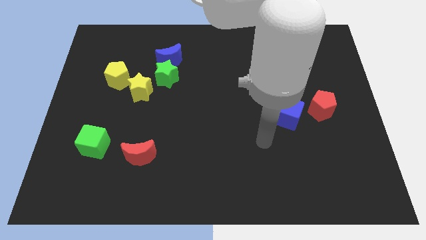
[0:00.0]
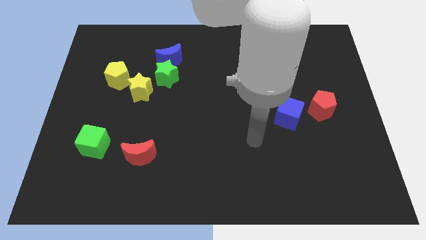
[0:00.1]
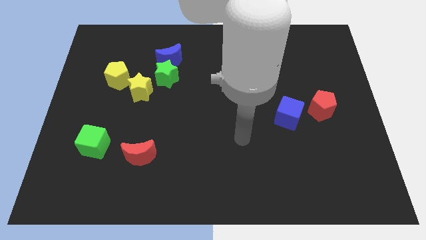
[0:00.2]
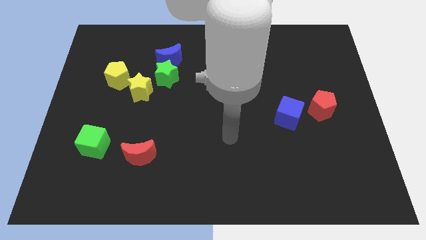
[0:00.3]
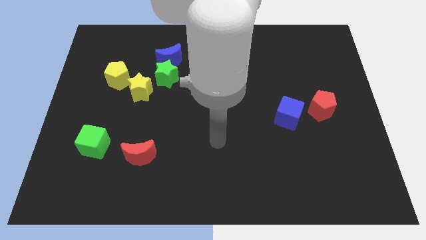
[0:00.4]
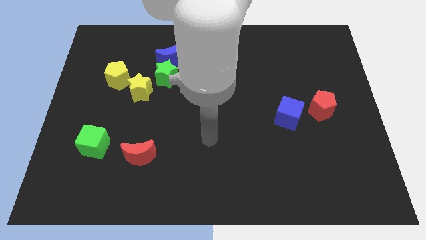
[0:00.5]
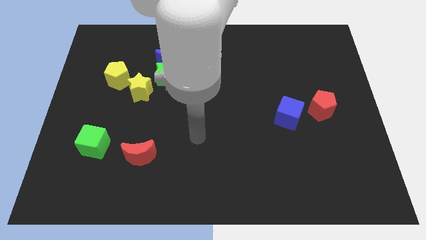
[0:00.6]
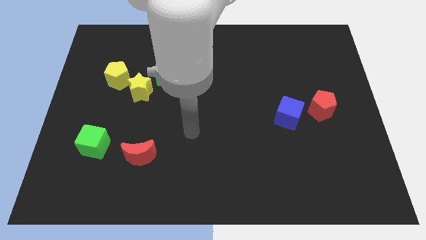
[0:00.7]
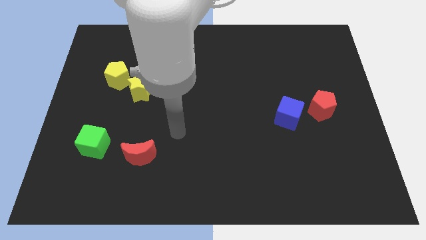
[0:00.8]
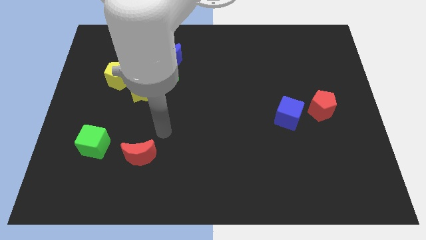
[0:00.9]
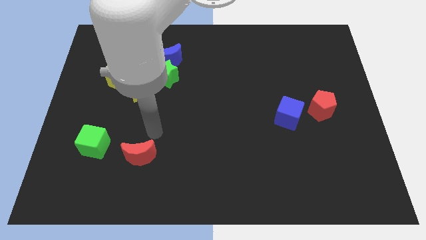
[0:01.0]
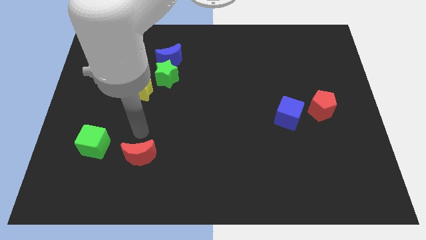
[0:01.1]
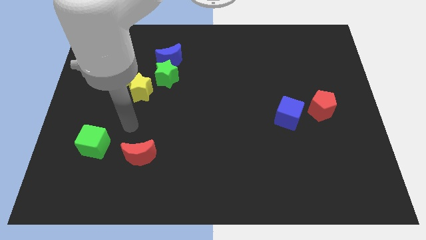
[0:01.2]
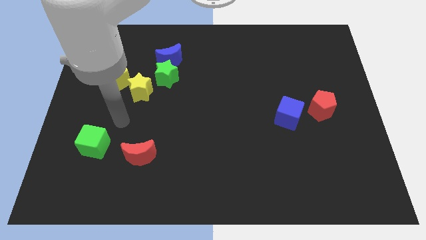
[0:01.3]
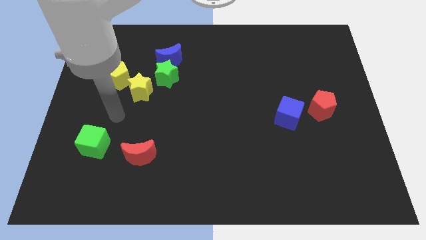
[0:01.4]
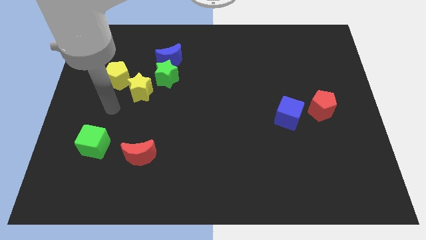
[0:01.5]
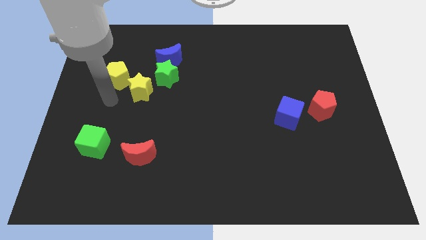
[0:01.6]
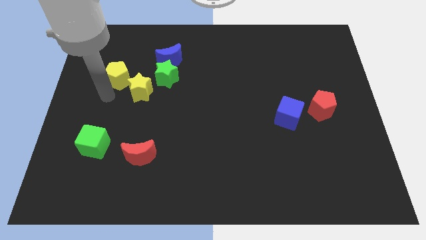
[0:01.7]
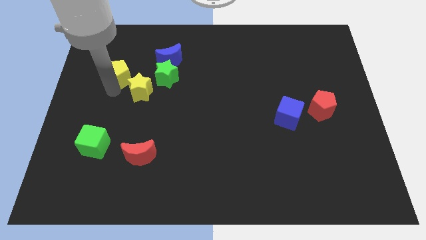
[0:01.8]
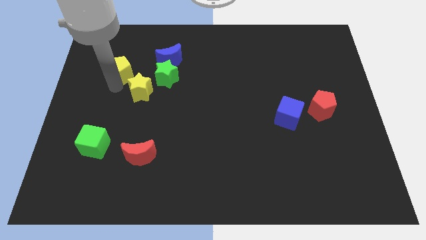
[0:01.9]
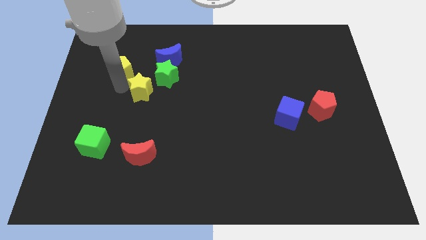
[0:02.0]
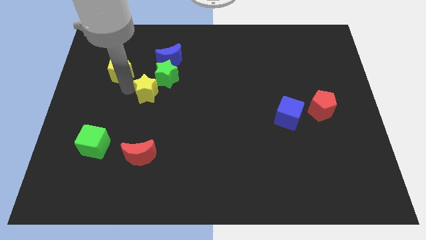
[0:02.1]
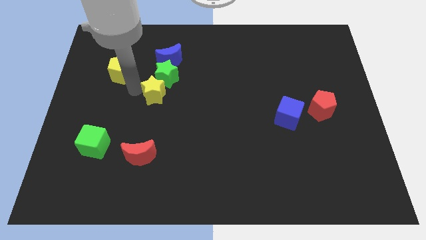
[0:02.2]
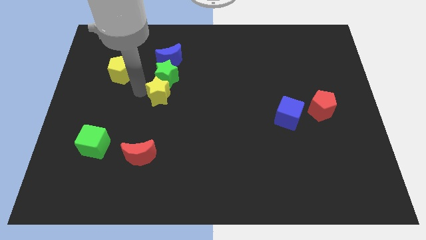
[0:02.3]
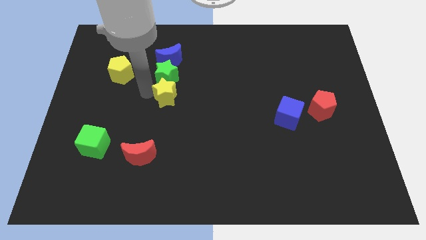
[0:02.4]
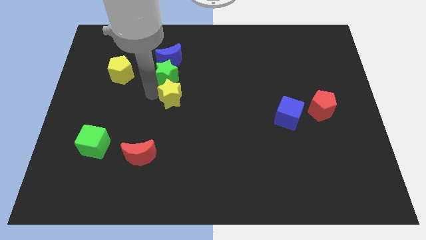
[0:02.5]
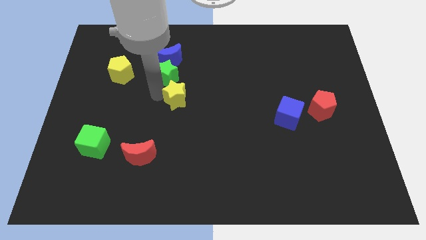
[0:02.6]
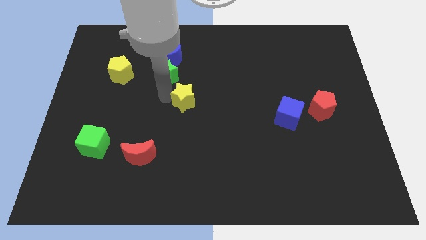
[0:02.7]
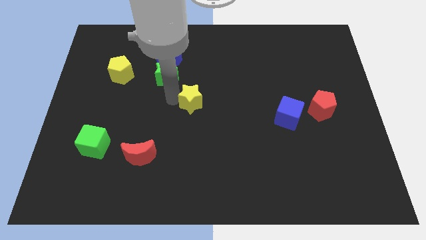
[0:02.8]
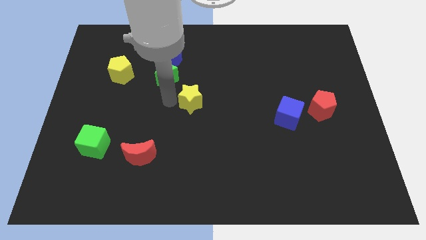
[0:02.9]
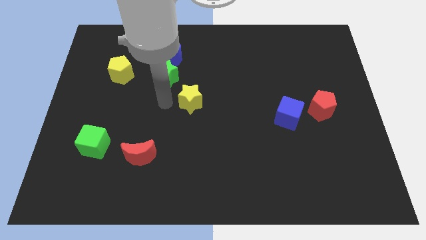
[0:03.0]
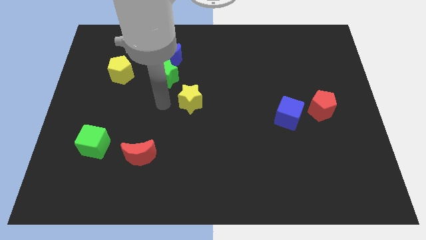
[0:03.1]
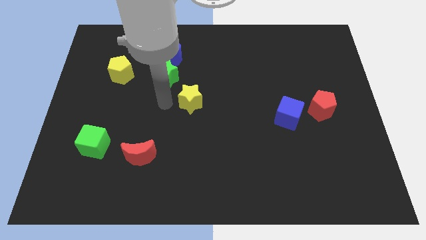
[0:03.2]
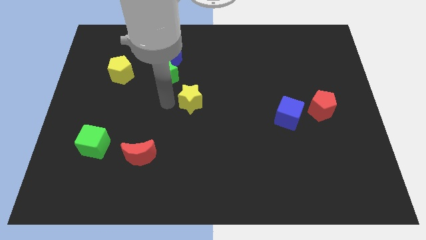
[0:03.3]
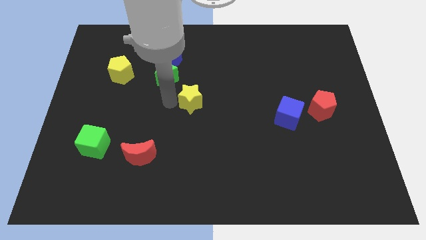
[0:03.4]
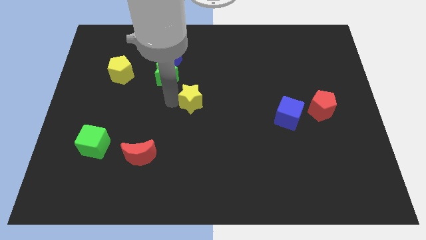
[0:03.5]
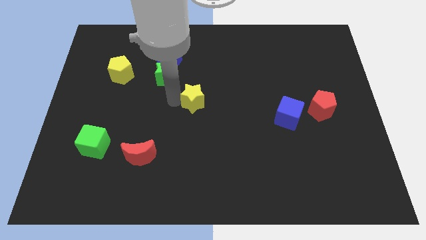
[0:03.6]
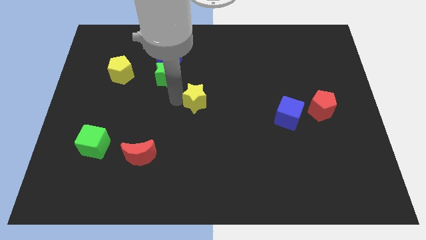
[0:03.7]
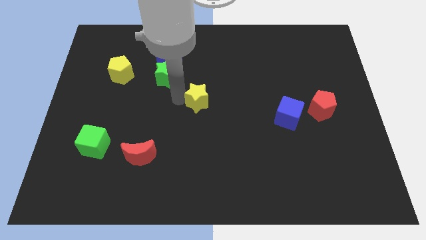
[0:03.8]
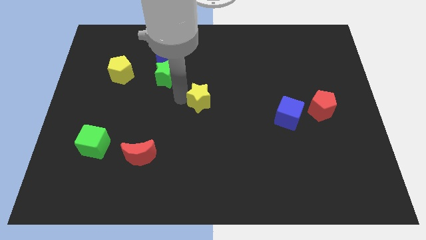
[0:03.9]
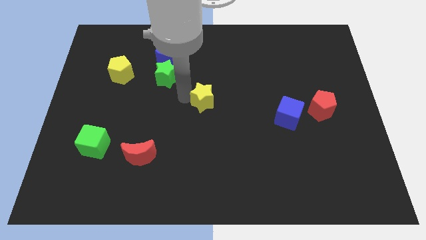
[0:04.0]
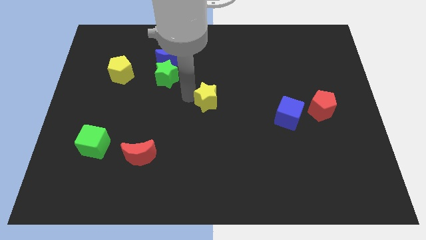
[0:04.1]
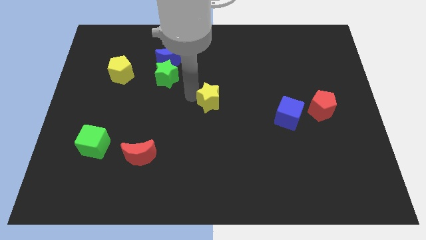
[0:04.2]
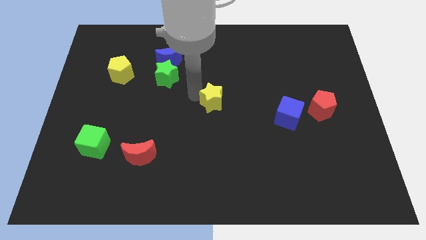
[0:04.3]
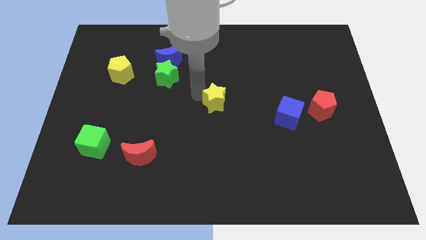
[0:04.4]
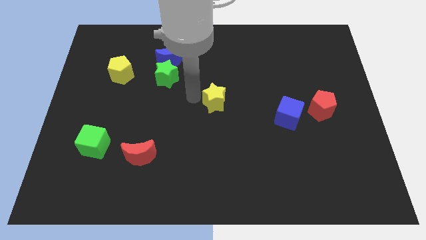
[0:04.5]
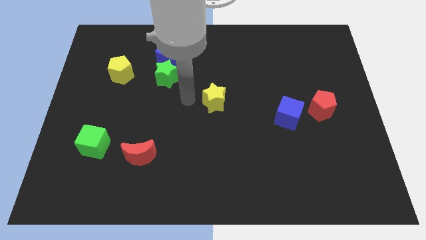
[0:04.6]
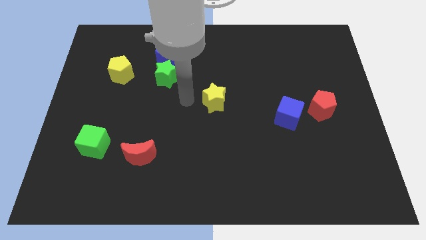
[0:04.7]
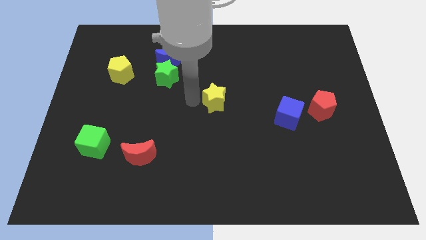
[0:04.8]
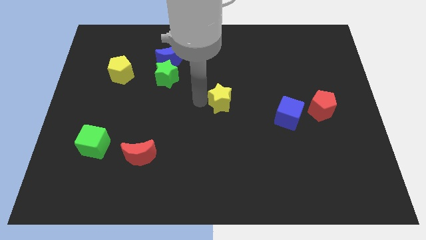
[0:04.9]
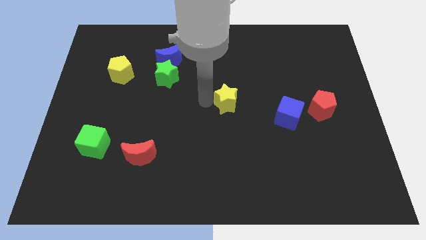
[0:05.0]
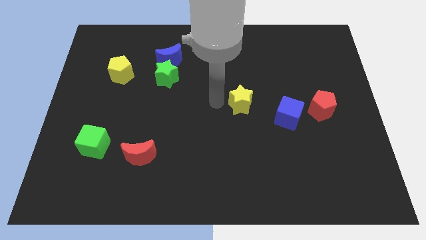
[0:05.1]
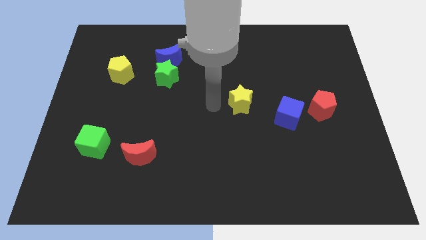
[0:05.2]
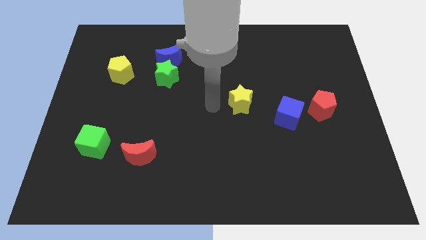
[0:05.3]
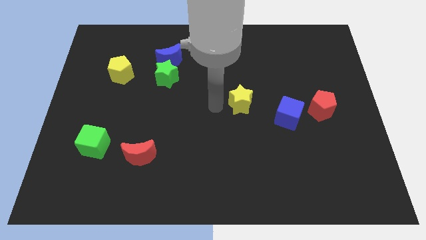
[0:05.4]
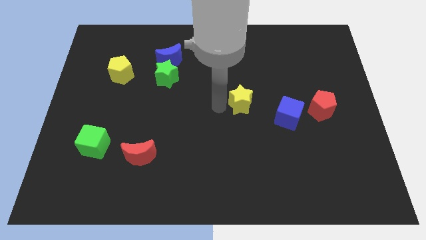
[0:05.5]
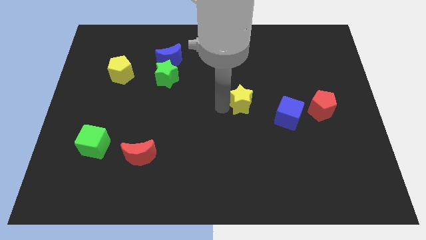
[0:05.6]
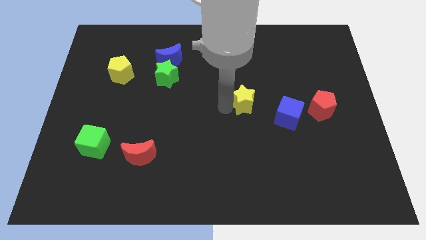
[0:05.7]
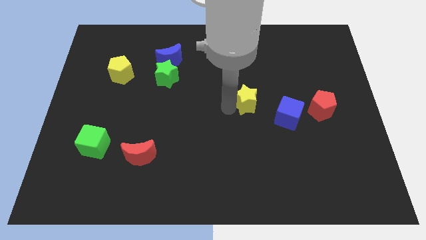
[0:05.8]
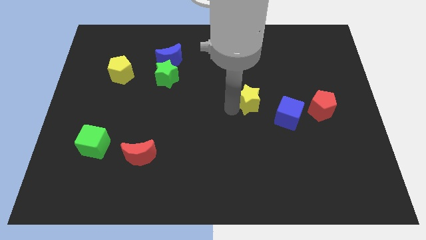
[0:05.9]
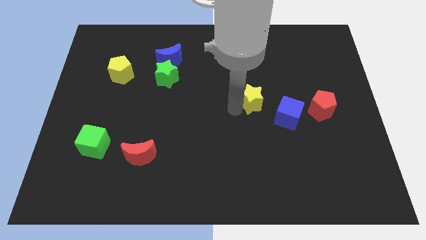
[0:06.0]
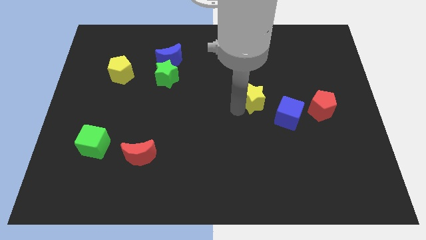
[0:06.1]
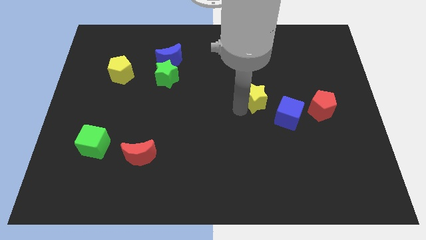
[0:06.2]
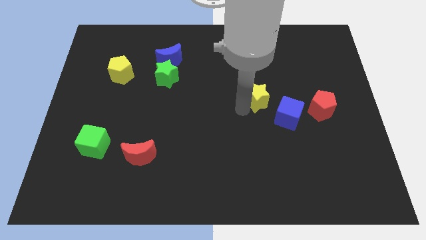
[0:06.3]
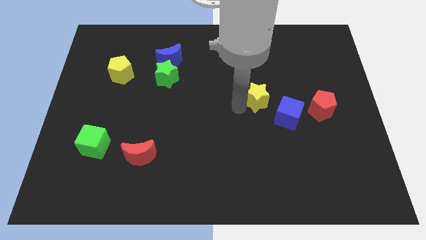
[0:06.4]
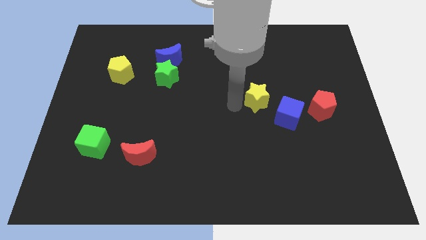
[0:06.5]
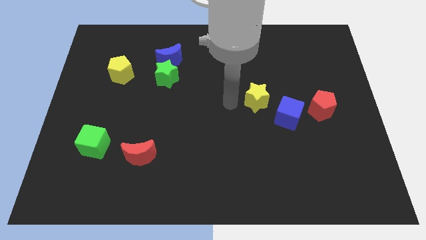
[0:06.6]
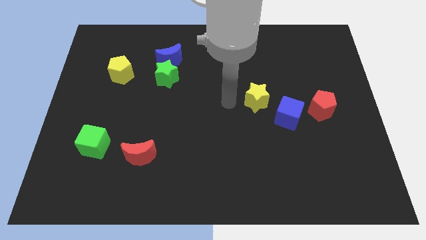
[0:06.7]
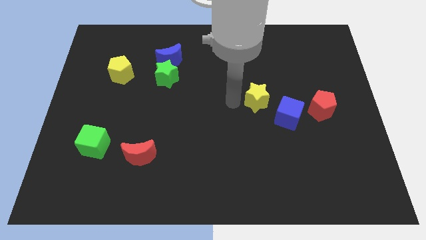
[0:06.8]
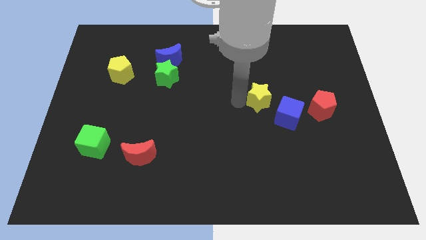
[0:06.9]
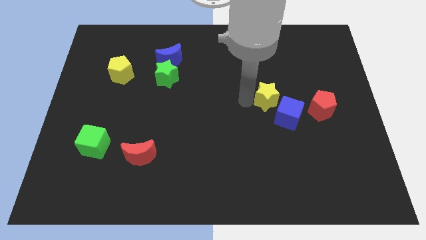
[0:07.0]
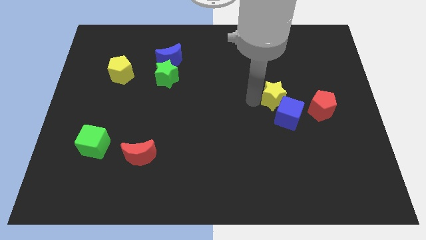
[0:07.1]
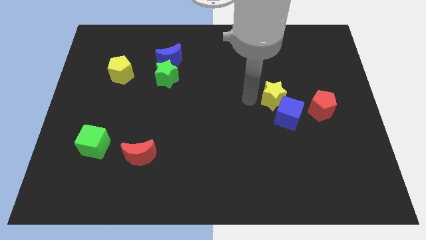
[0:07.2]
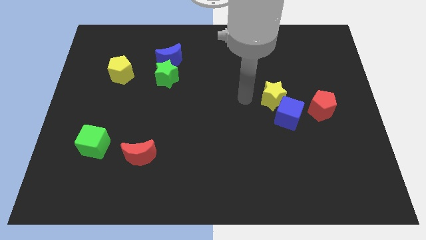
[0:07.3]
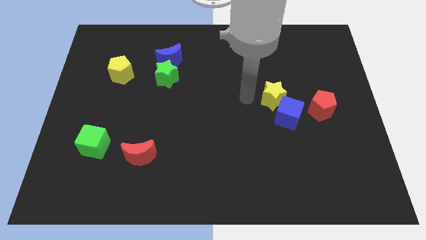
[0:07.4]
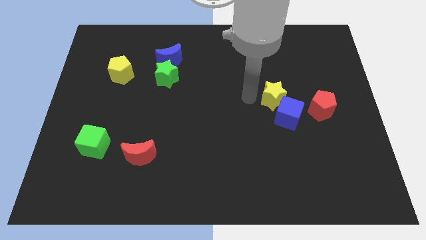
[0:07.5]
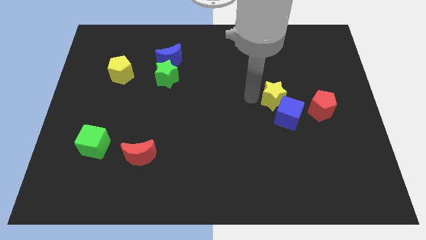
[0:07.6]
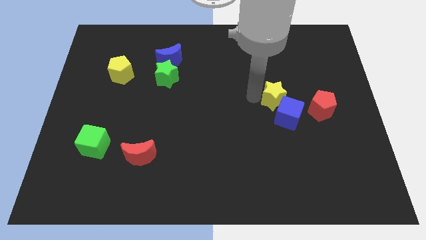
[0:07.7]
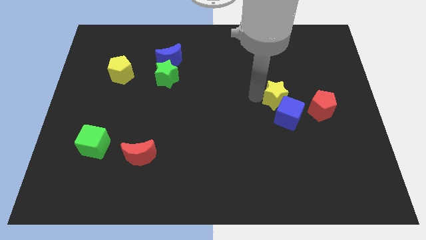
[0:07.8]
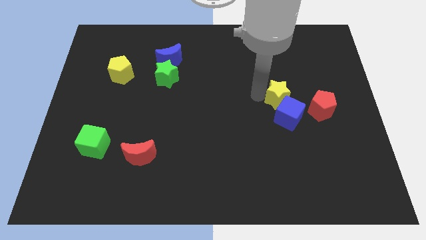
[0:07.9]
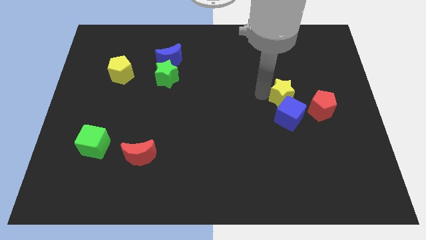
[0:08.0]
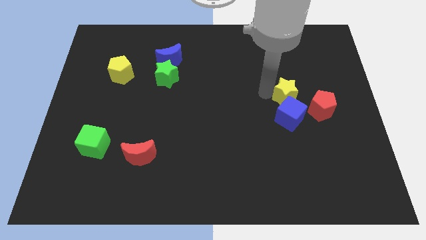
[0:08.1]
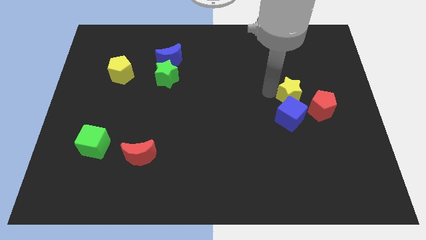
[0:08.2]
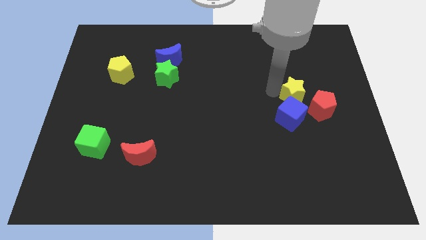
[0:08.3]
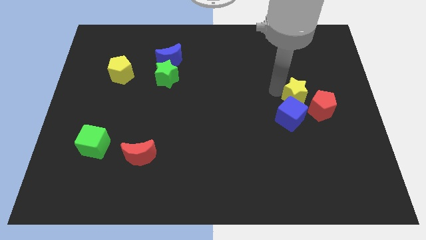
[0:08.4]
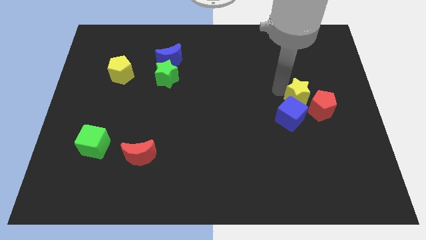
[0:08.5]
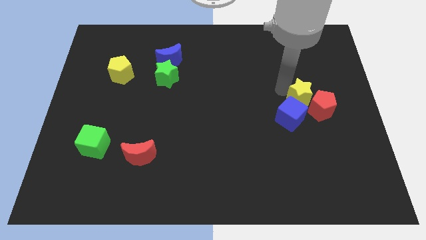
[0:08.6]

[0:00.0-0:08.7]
move the yellow star next to the red pentagon
